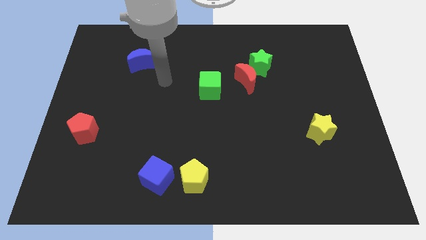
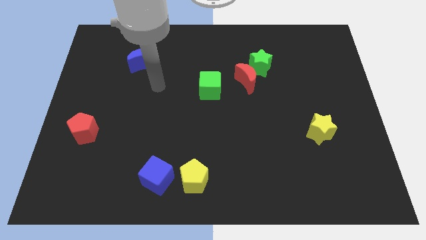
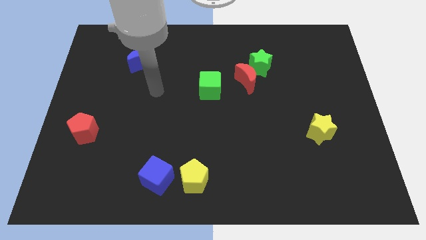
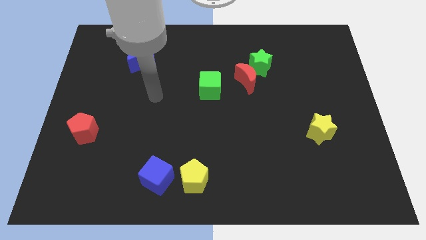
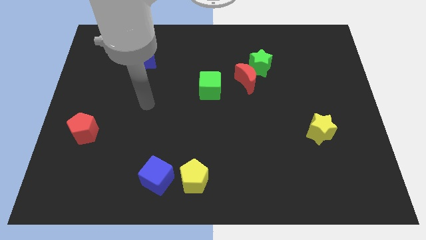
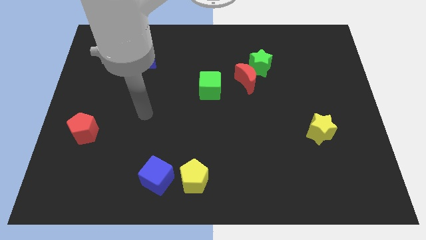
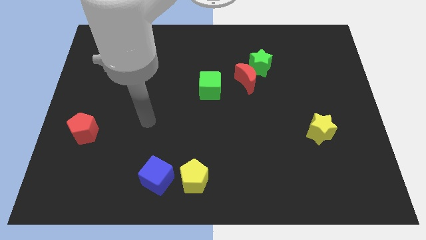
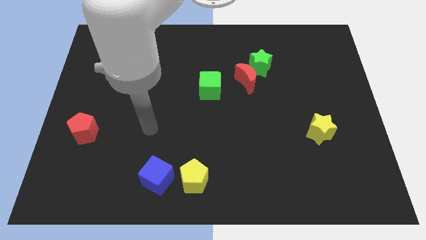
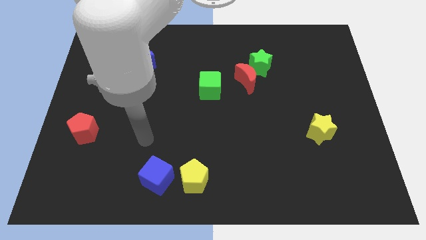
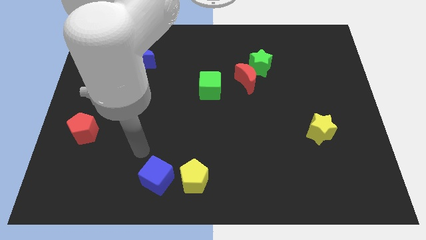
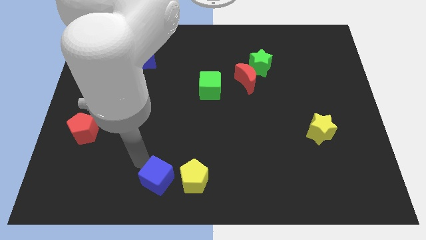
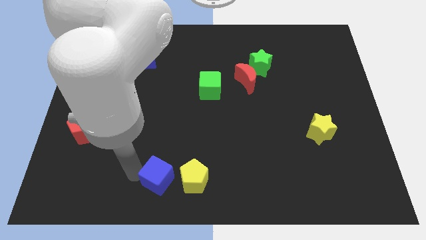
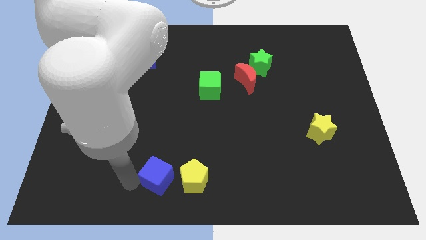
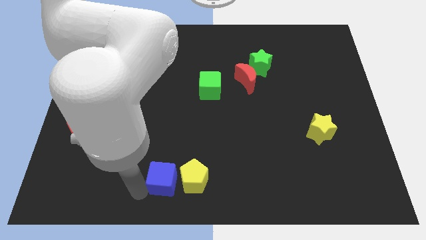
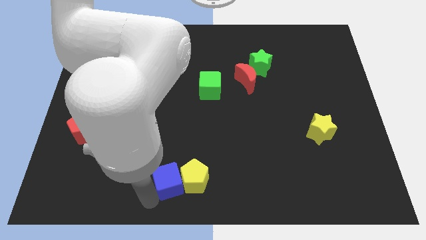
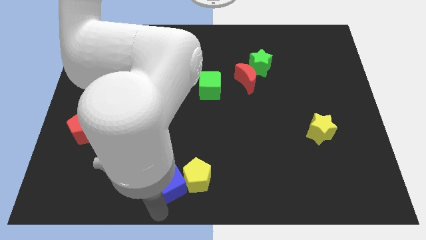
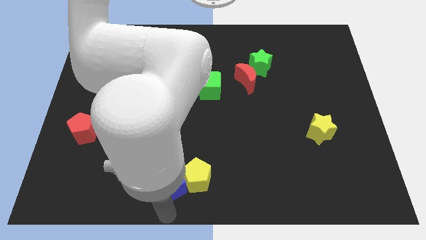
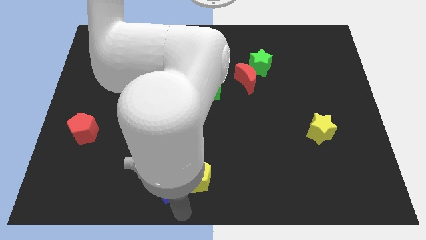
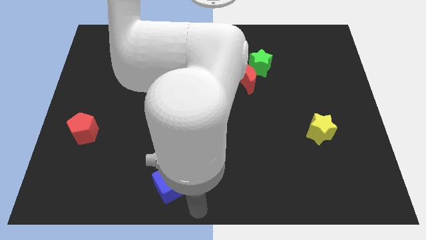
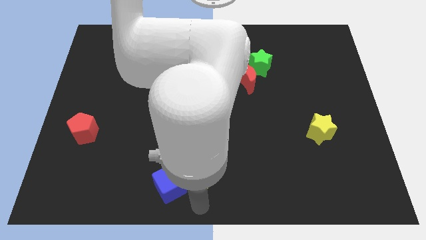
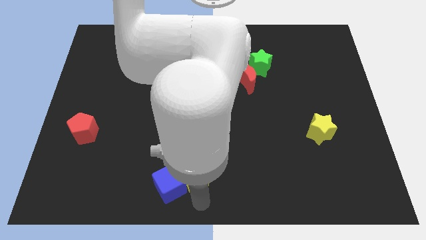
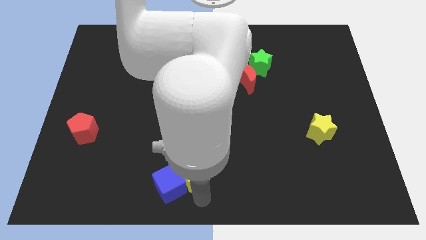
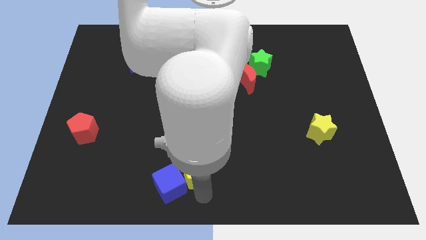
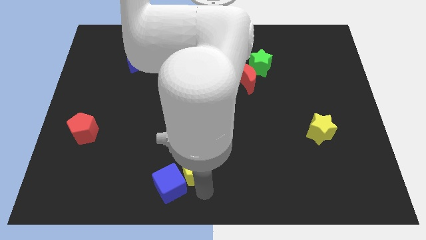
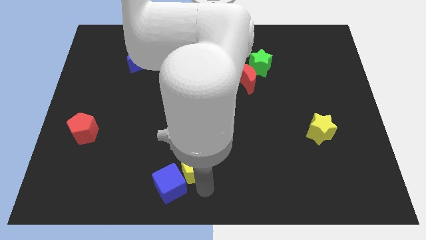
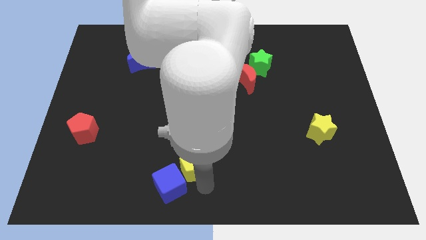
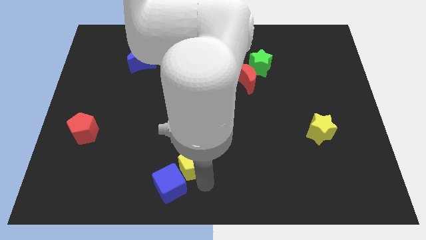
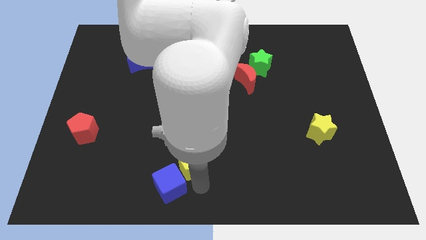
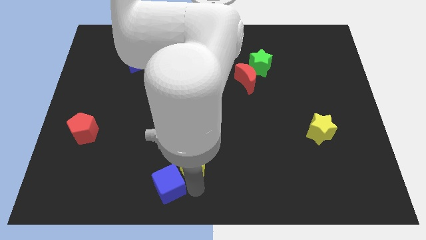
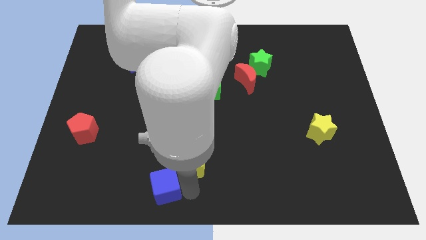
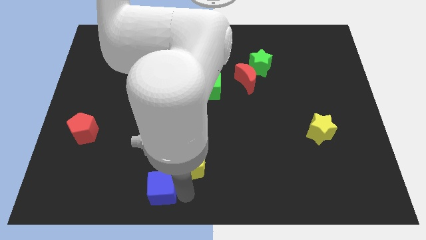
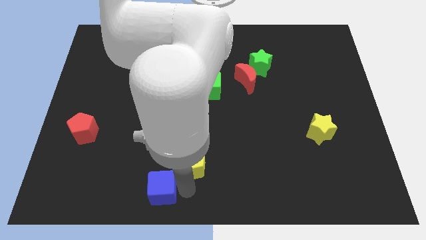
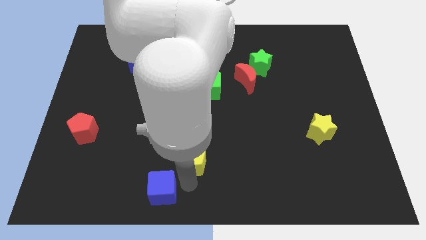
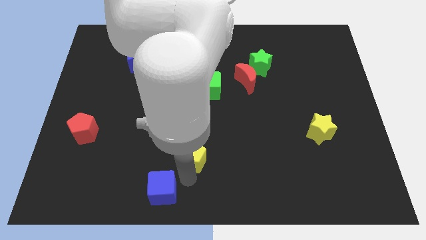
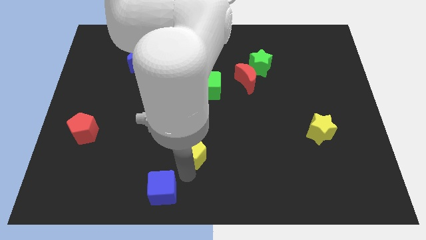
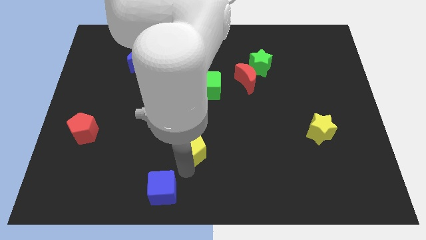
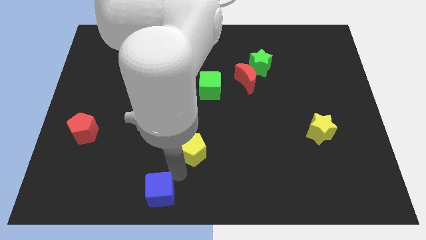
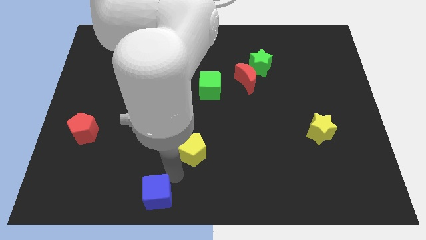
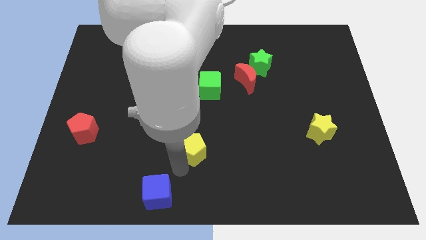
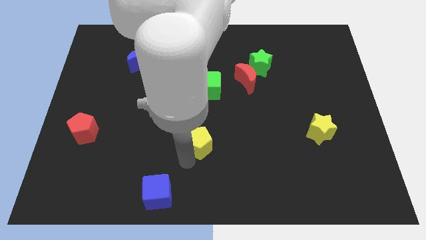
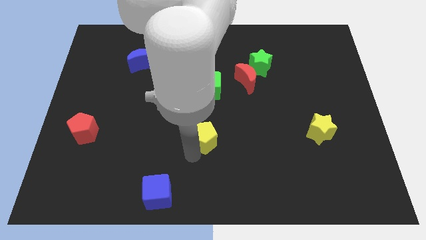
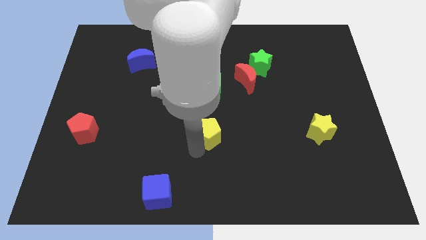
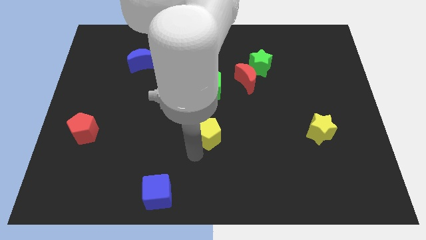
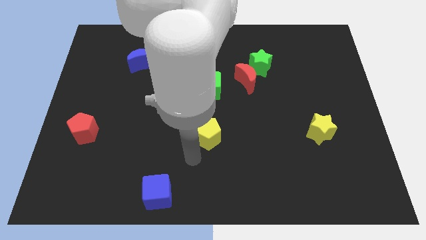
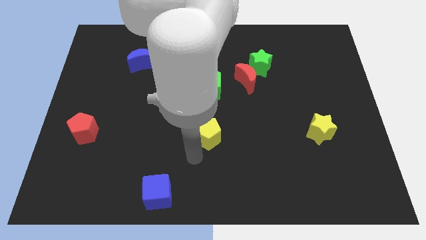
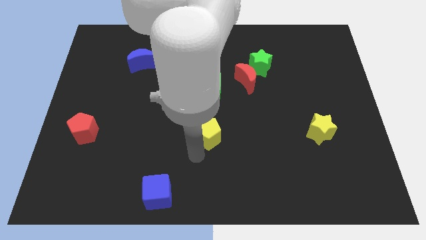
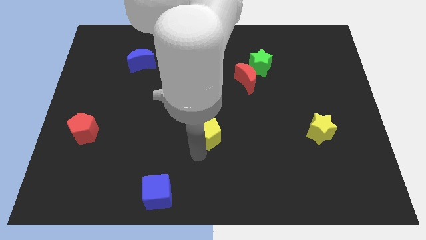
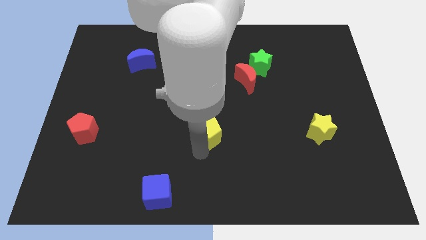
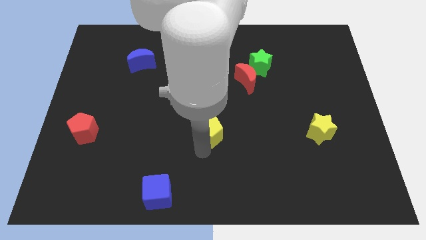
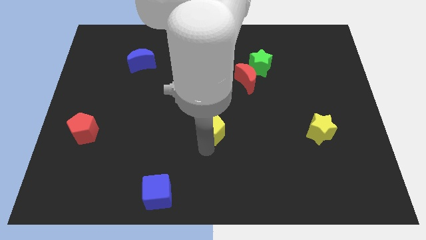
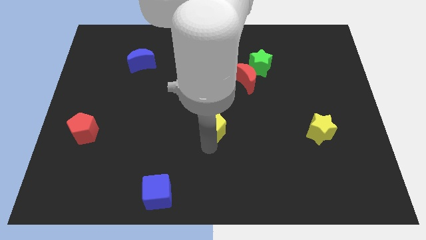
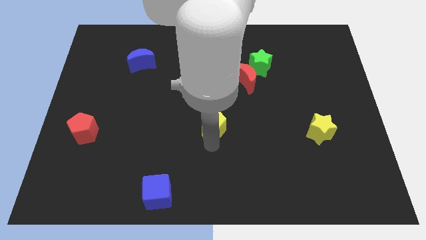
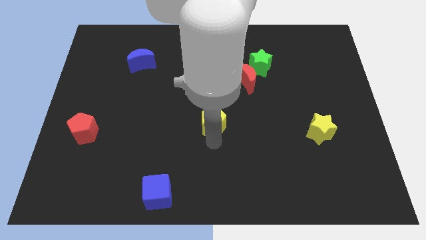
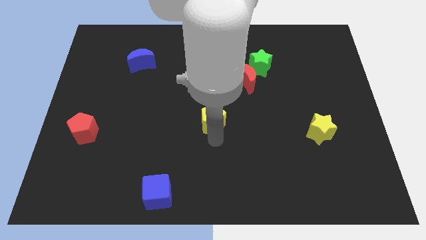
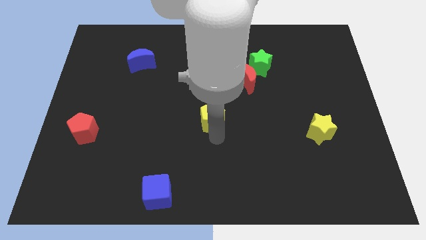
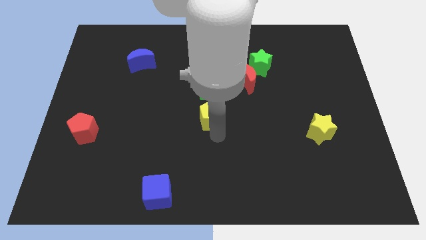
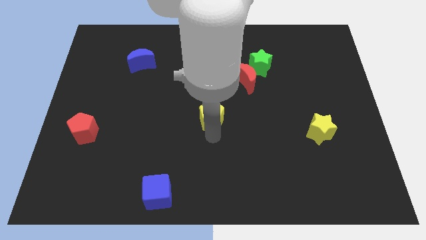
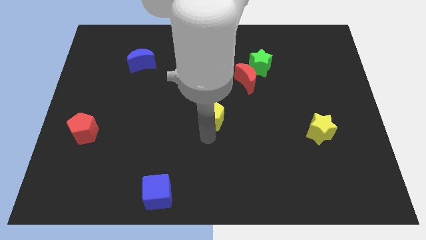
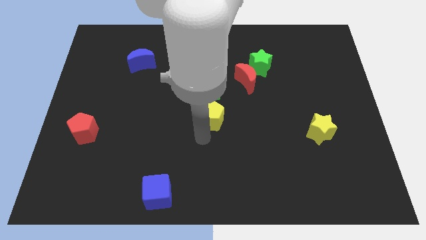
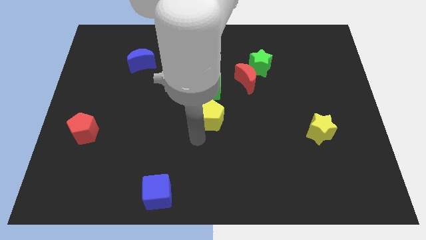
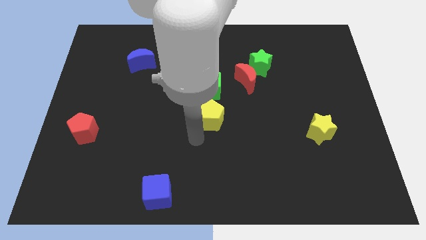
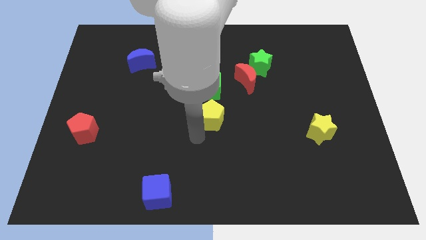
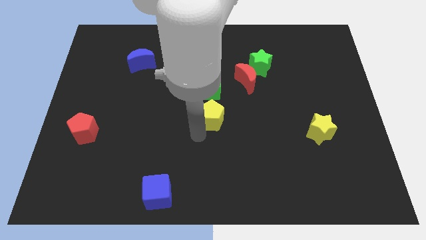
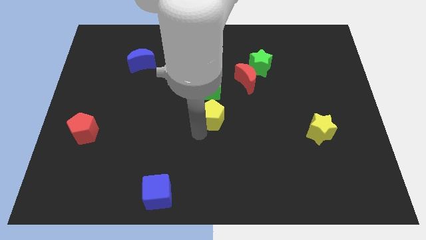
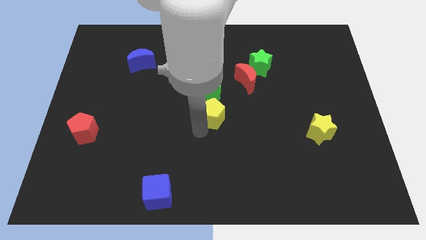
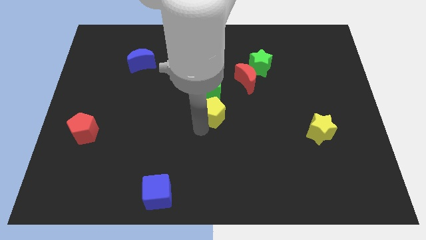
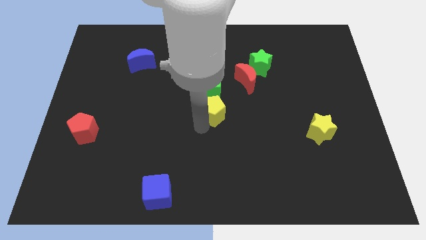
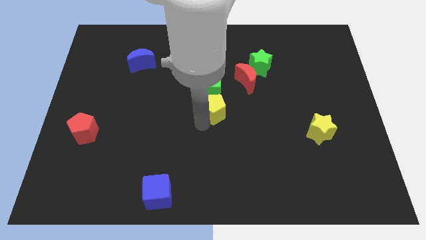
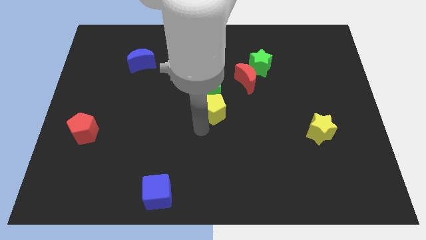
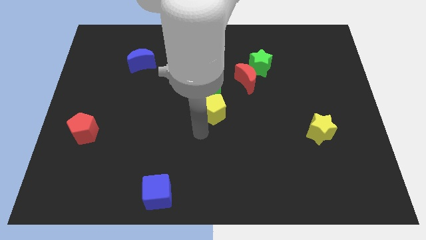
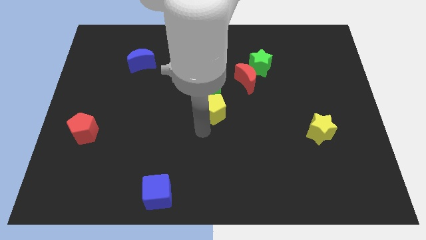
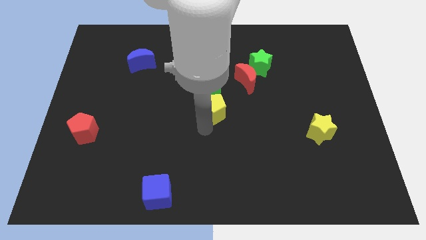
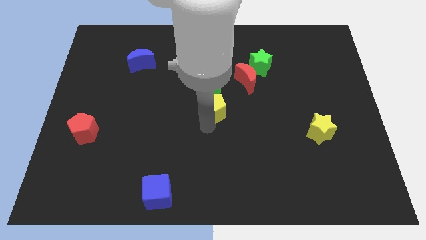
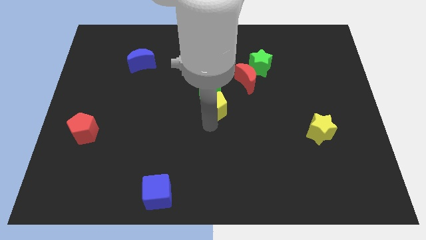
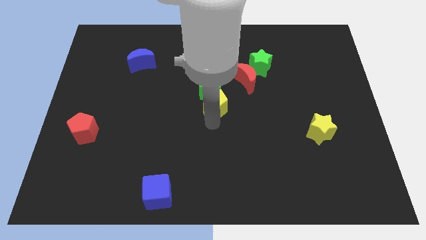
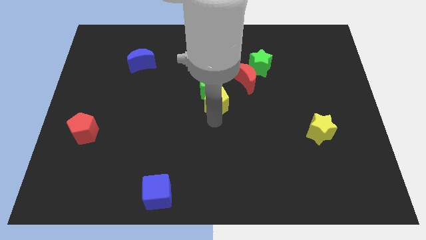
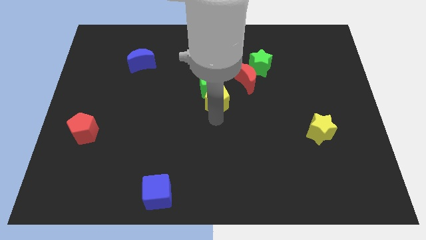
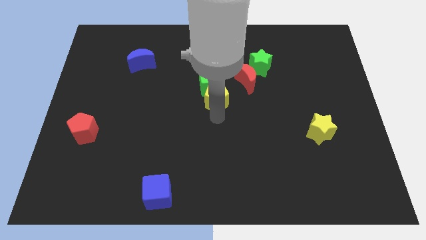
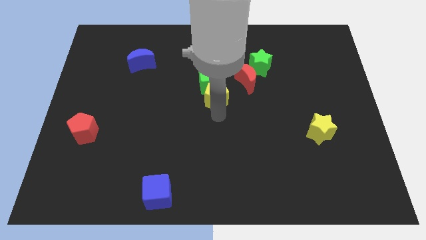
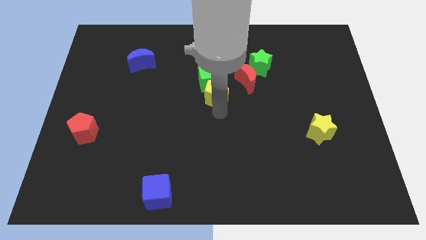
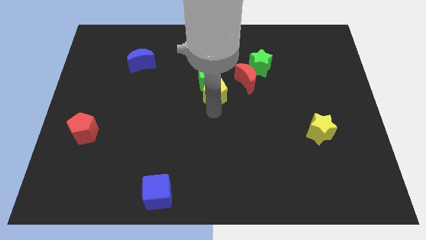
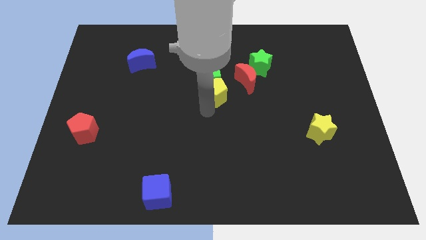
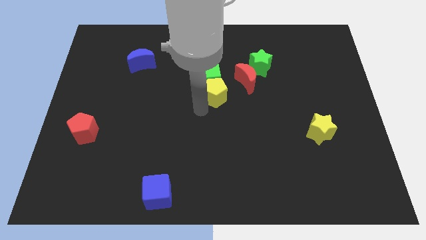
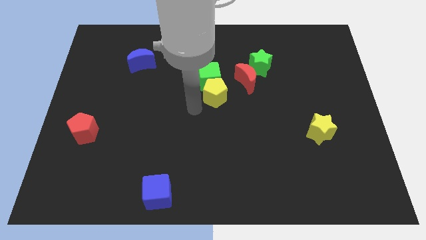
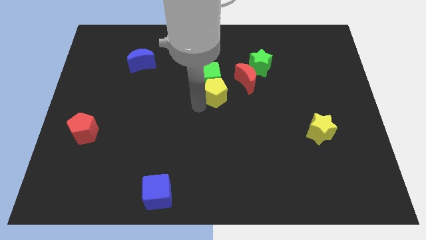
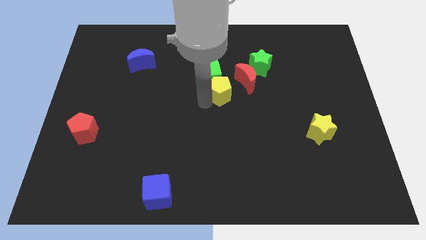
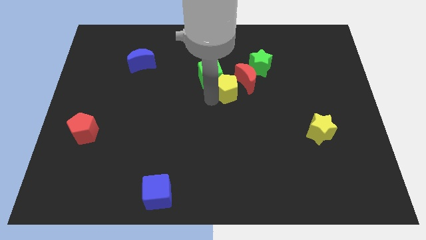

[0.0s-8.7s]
push the yellow pentagon diagonally down and to the left of the green star
